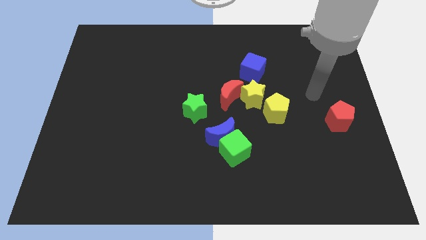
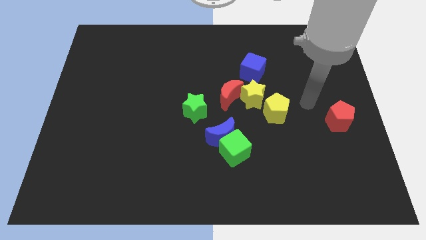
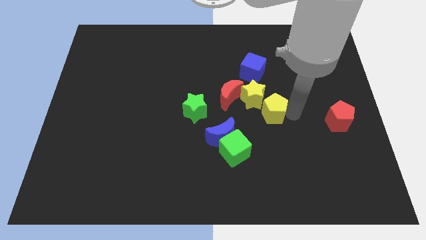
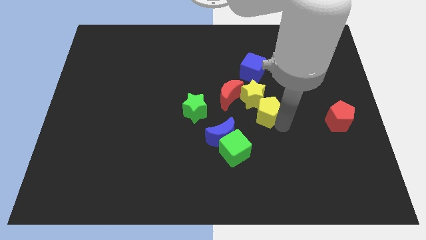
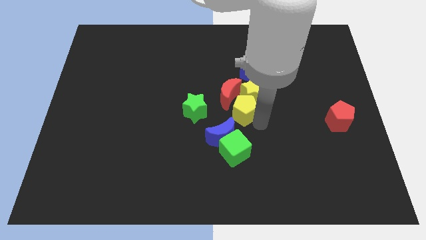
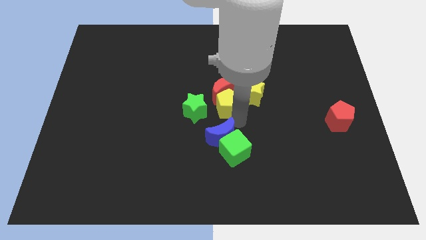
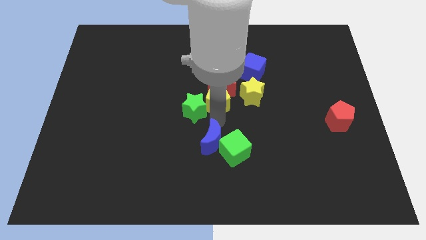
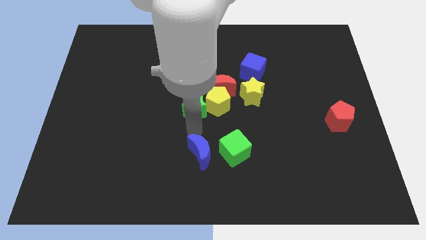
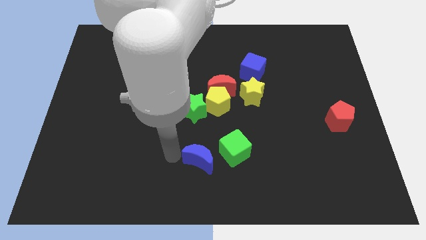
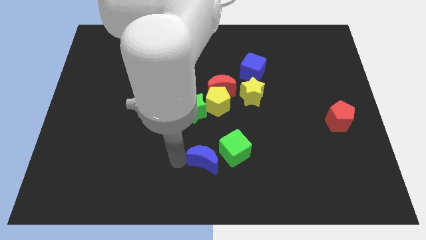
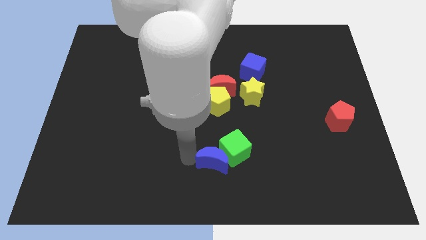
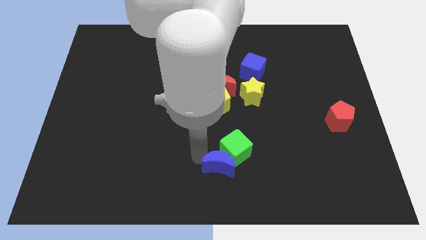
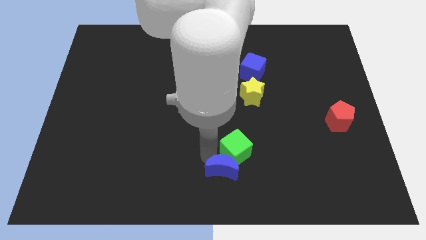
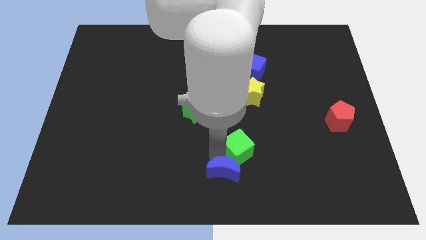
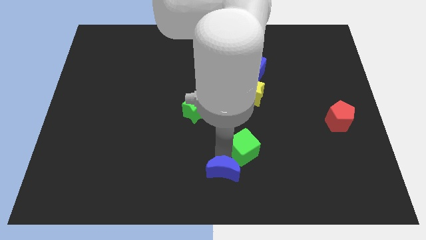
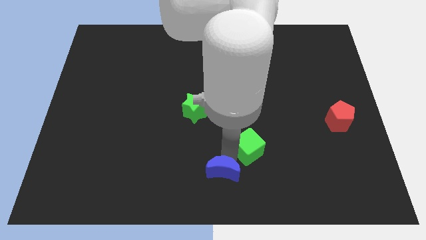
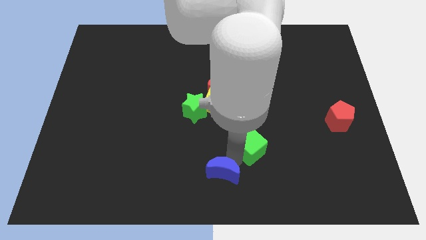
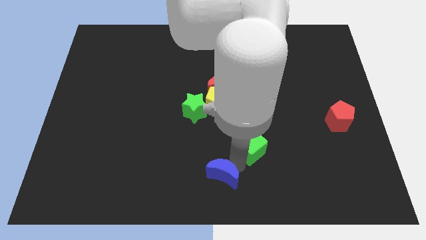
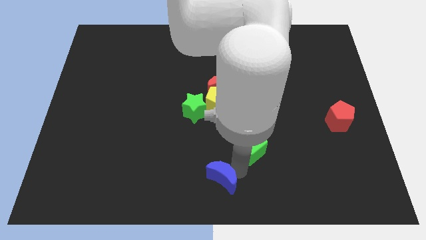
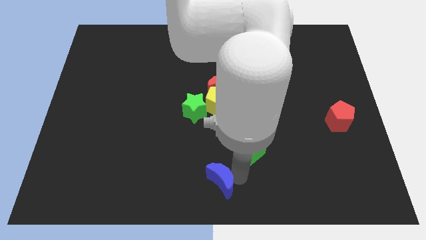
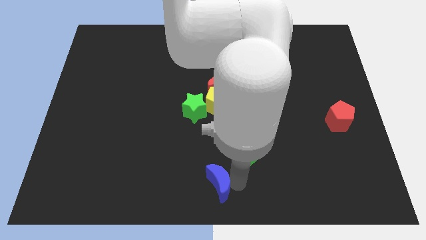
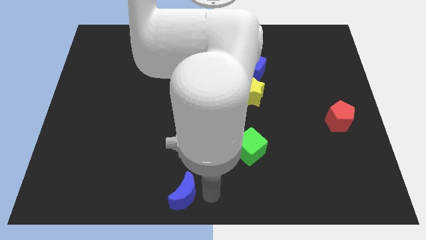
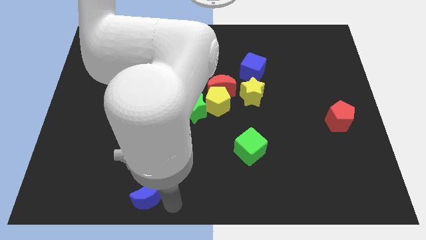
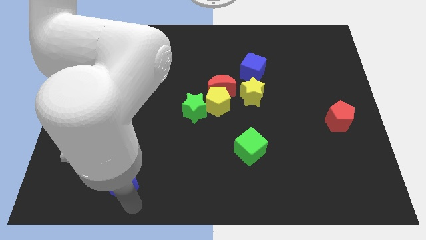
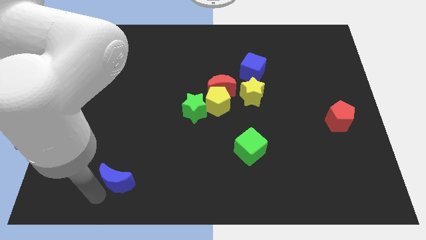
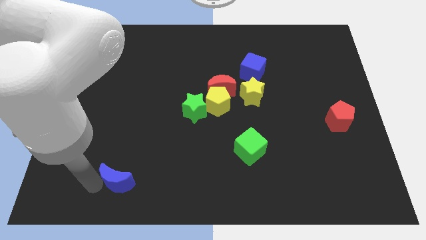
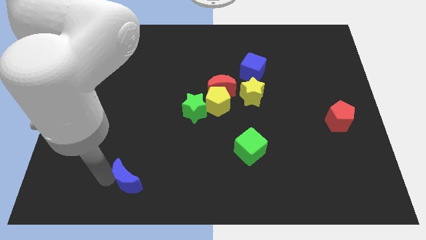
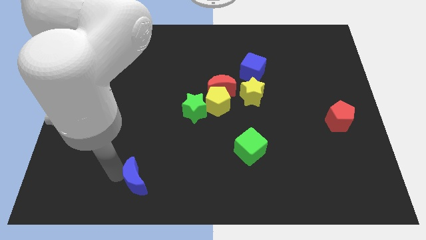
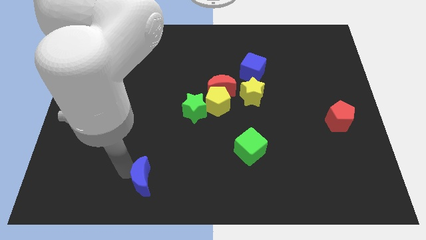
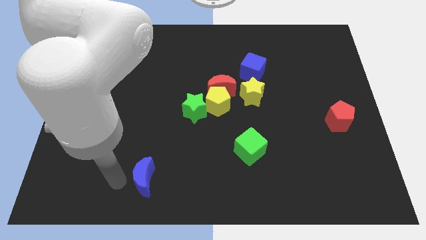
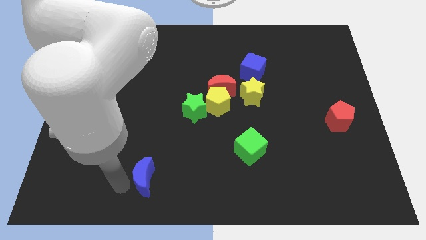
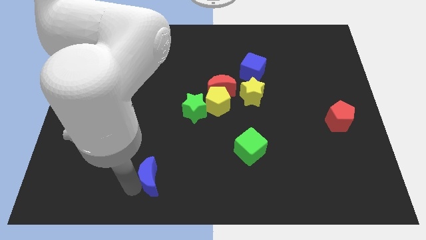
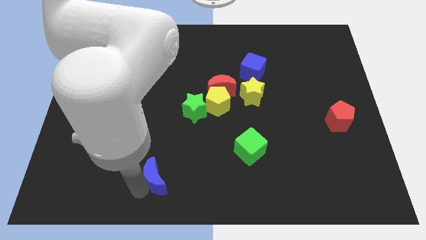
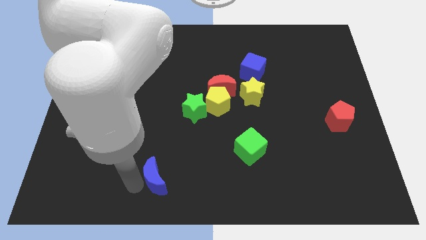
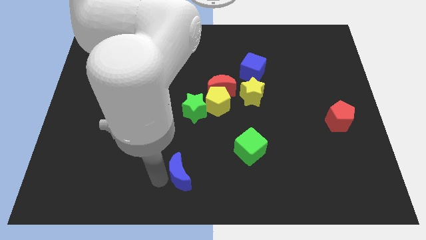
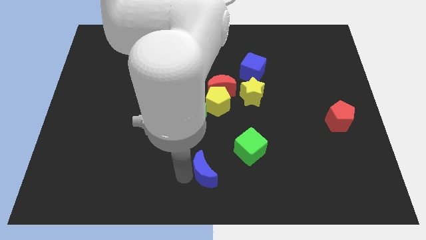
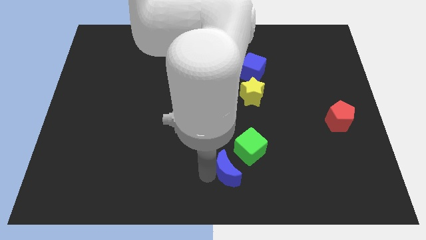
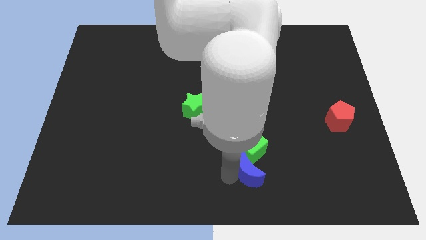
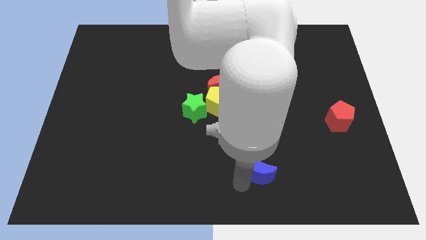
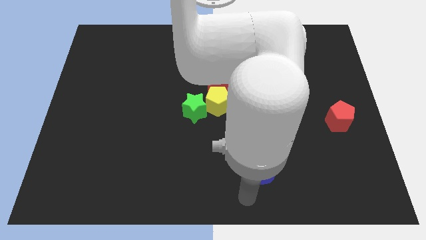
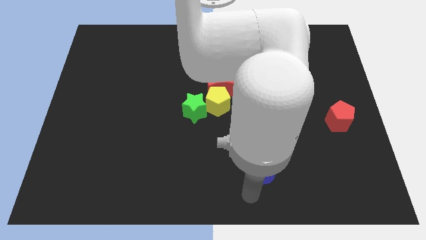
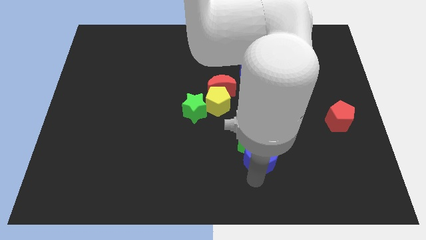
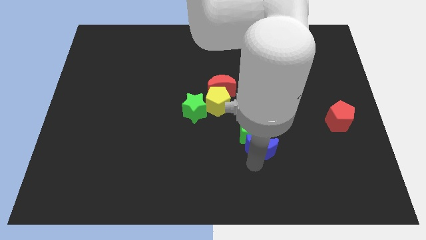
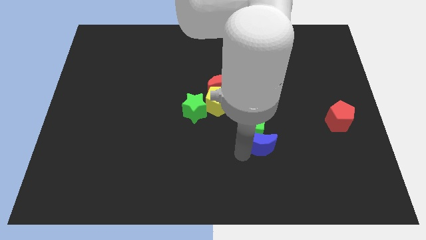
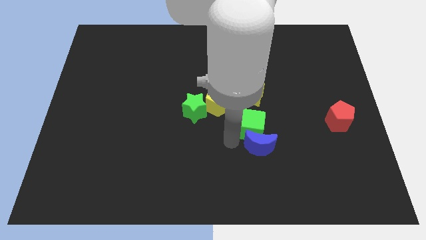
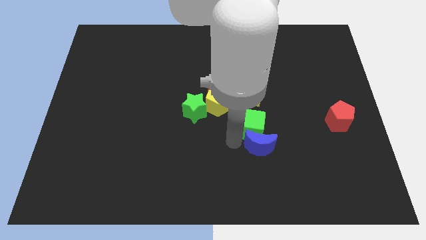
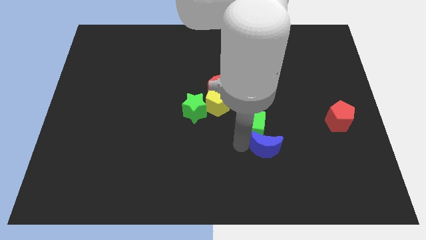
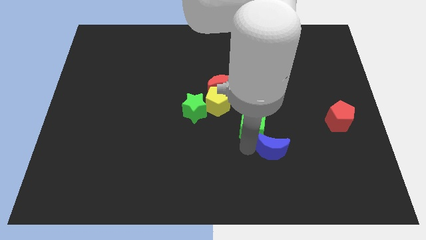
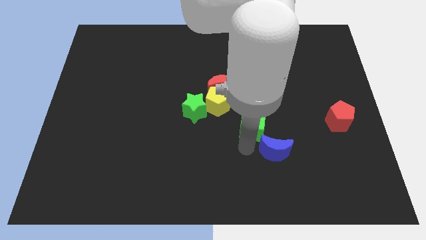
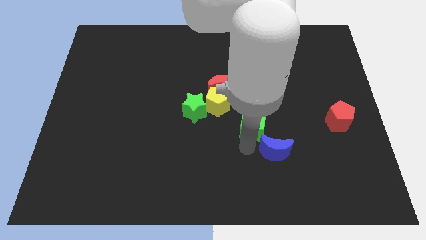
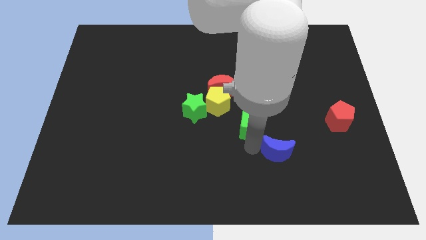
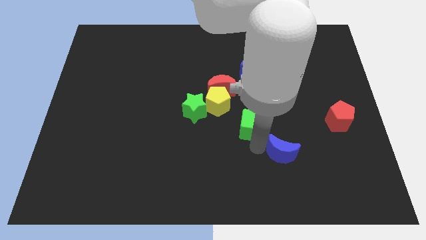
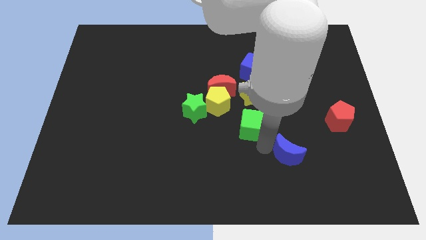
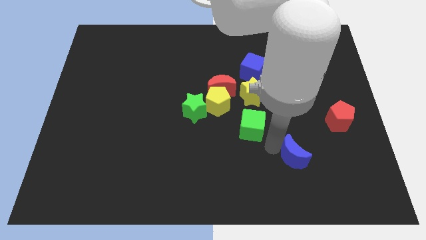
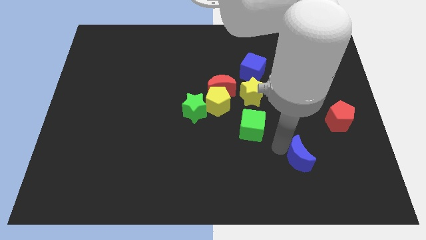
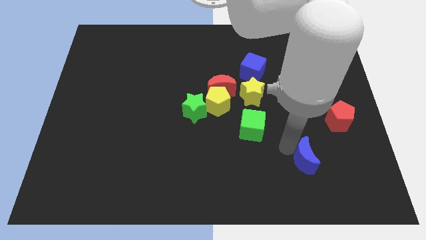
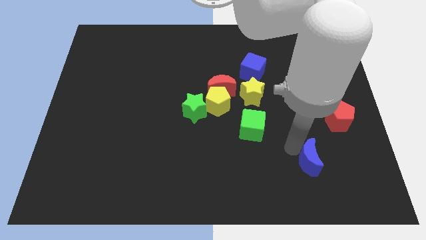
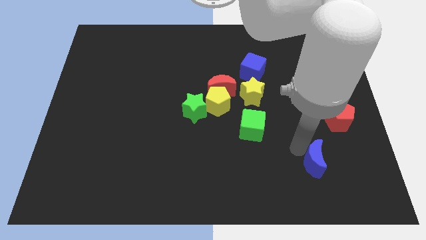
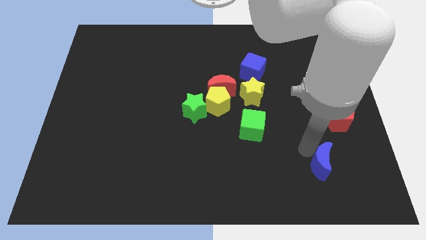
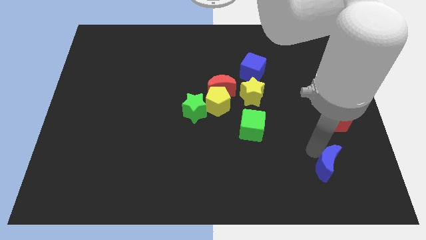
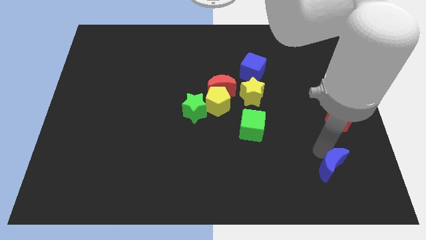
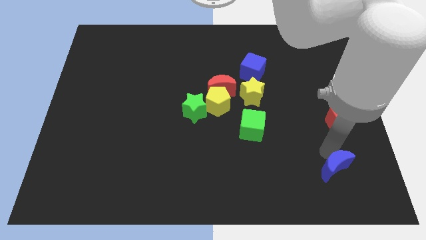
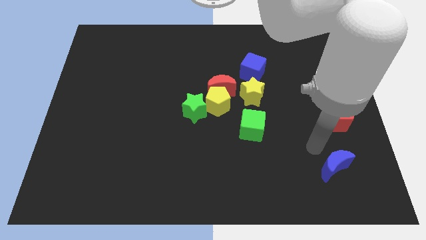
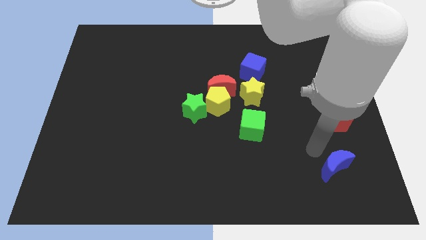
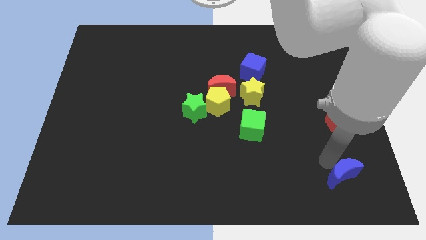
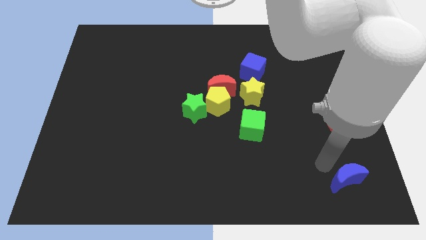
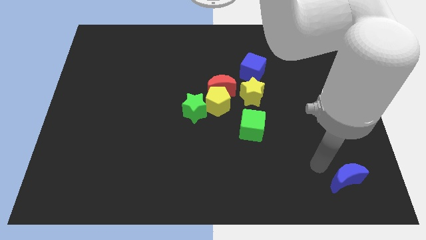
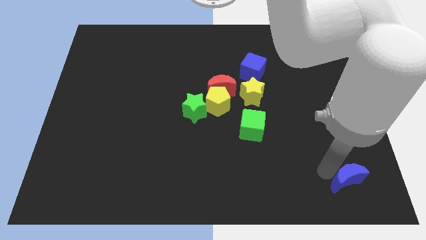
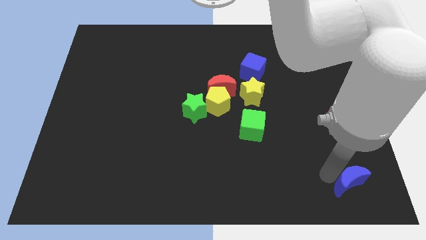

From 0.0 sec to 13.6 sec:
move the blue moon to the lower right corner
